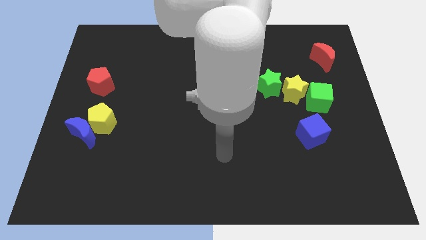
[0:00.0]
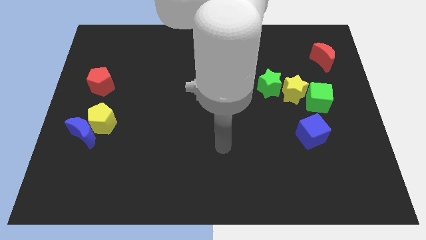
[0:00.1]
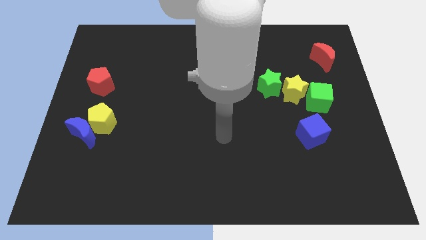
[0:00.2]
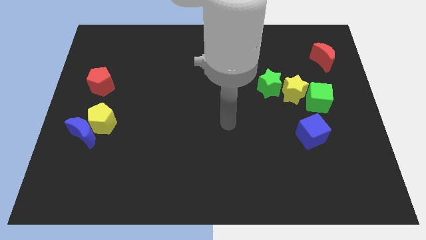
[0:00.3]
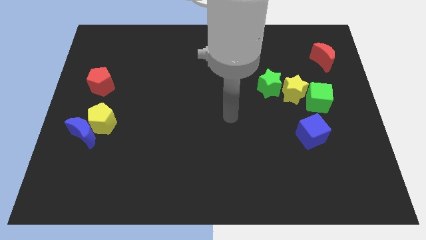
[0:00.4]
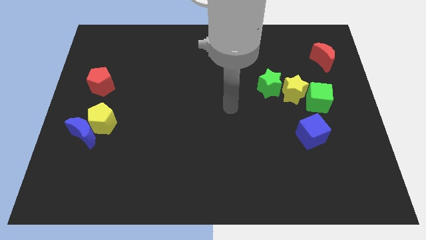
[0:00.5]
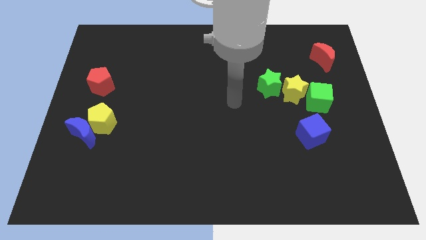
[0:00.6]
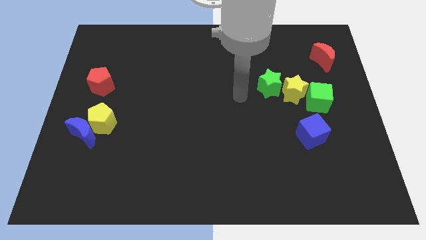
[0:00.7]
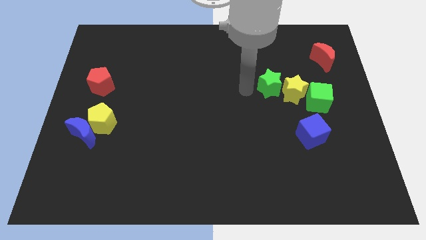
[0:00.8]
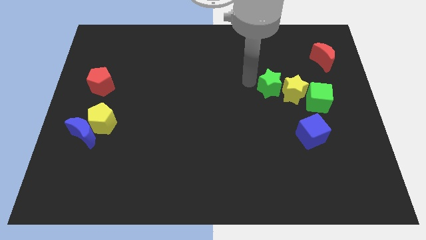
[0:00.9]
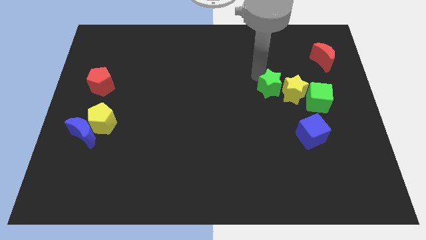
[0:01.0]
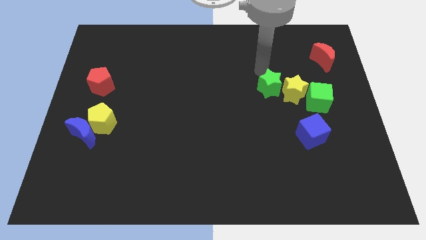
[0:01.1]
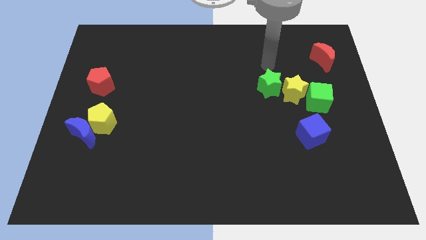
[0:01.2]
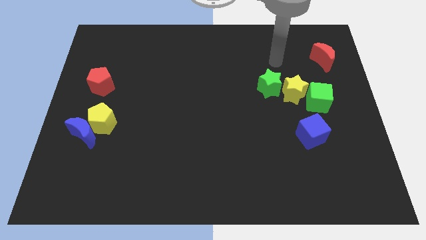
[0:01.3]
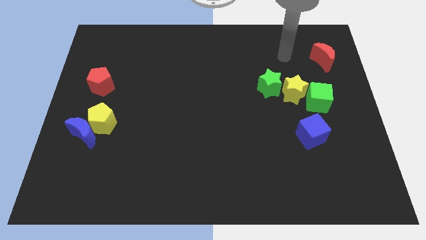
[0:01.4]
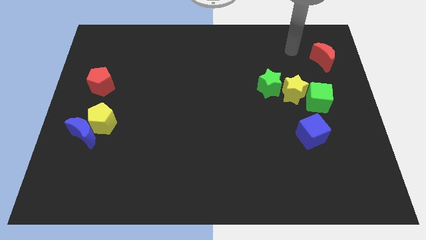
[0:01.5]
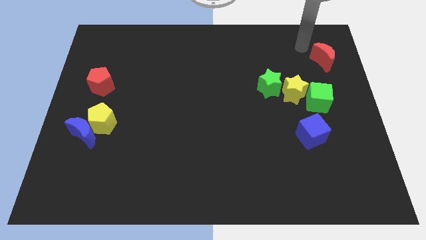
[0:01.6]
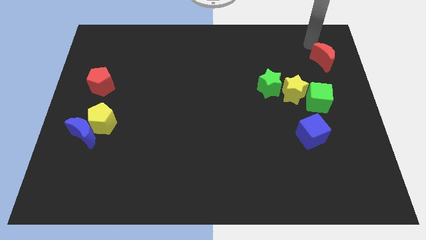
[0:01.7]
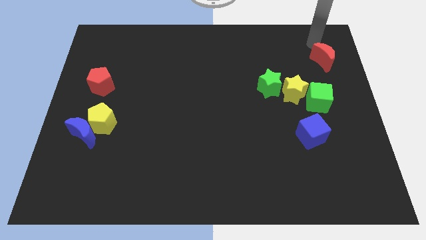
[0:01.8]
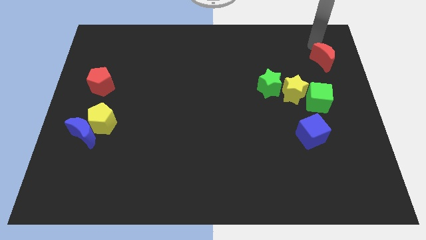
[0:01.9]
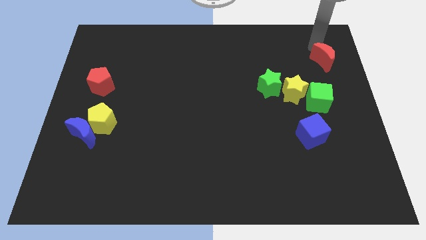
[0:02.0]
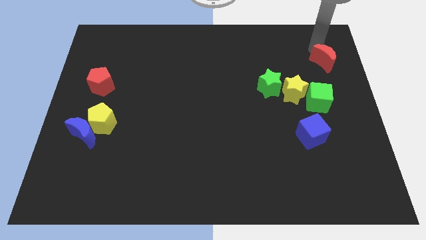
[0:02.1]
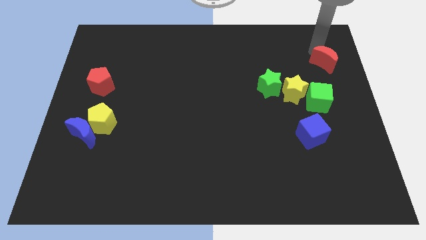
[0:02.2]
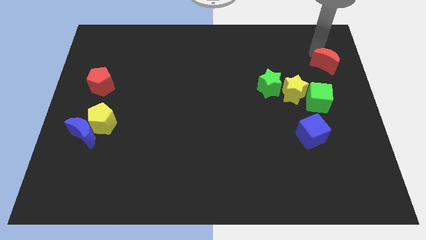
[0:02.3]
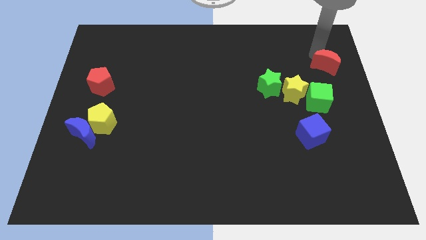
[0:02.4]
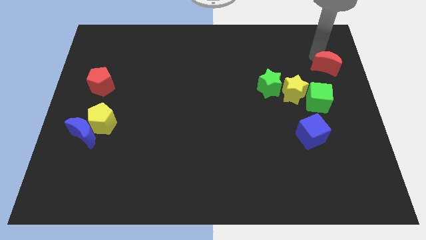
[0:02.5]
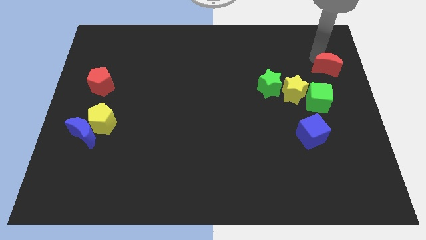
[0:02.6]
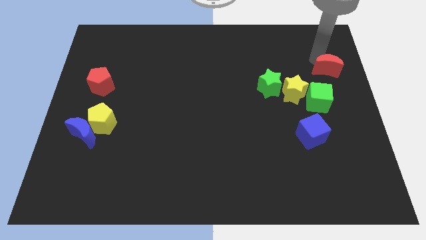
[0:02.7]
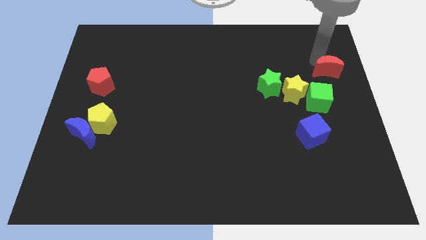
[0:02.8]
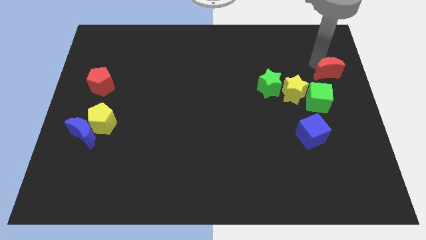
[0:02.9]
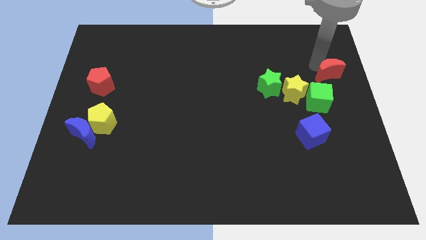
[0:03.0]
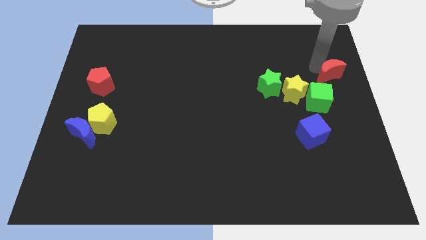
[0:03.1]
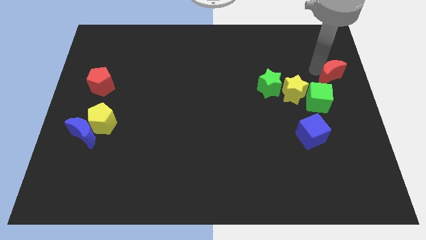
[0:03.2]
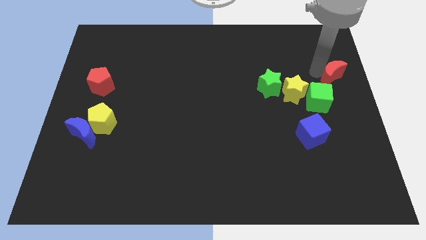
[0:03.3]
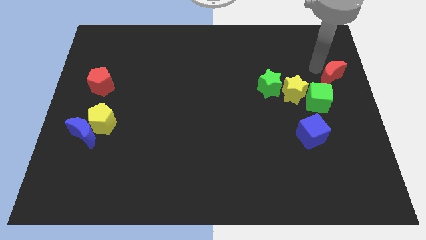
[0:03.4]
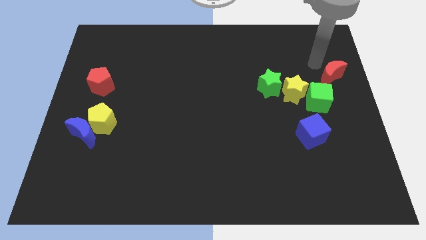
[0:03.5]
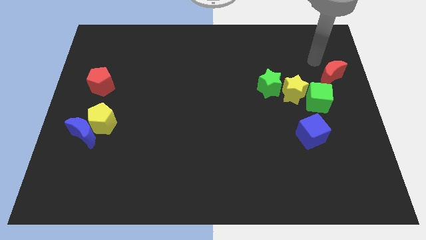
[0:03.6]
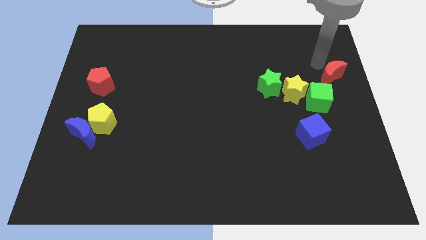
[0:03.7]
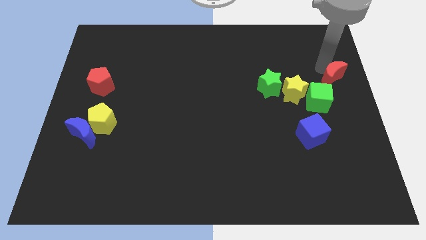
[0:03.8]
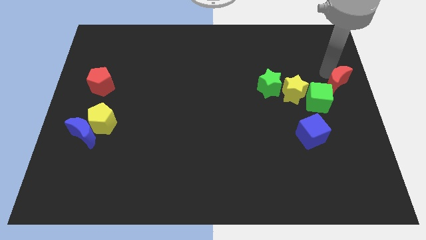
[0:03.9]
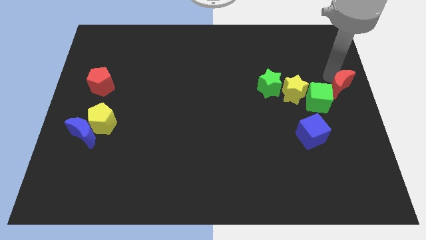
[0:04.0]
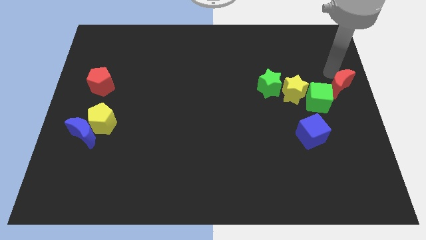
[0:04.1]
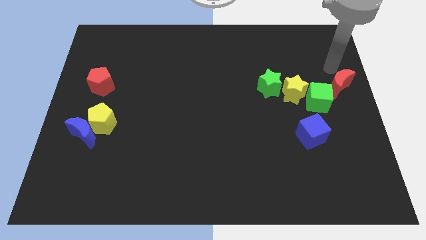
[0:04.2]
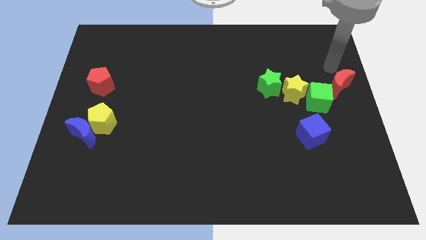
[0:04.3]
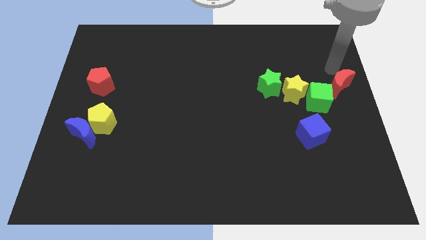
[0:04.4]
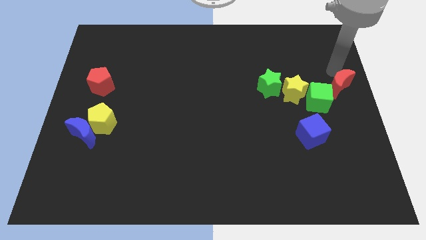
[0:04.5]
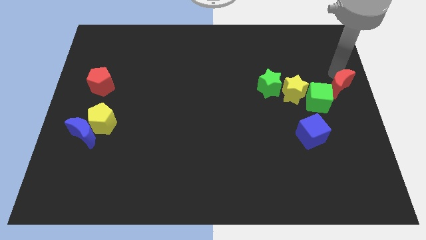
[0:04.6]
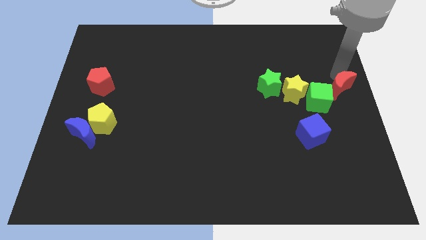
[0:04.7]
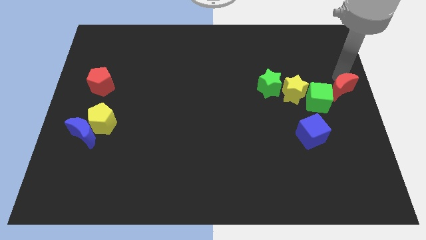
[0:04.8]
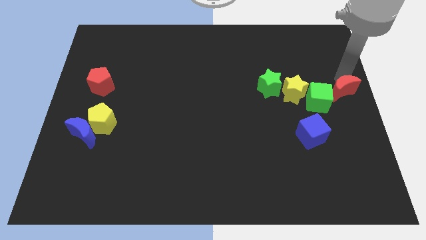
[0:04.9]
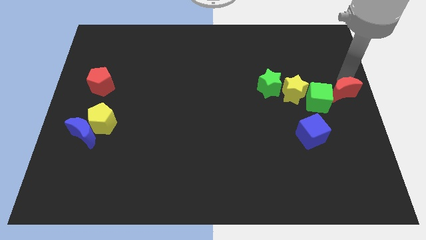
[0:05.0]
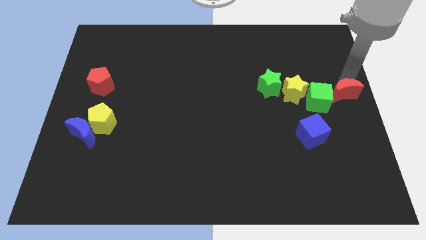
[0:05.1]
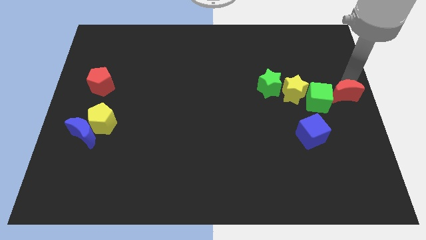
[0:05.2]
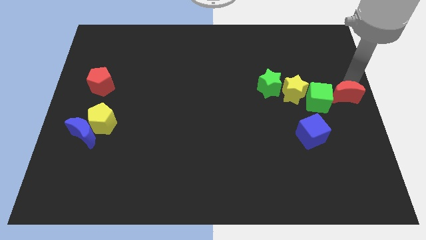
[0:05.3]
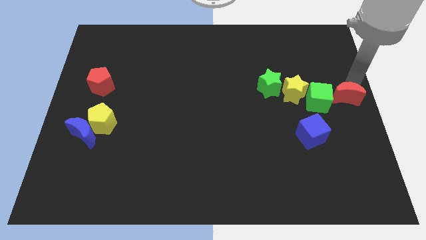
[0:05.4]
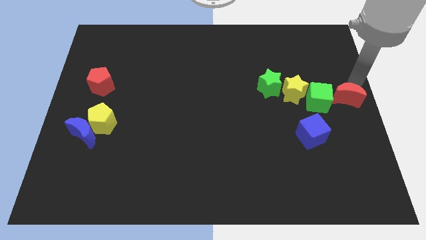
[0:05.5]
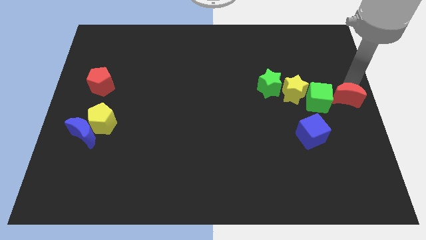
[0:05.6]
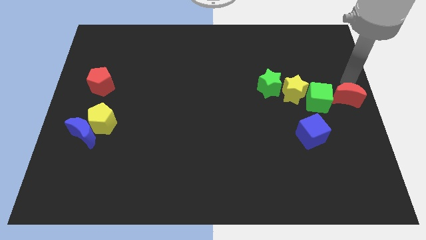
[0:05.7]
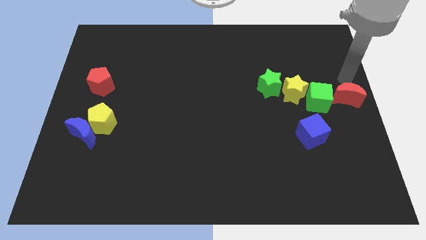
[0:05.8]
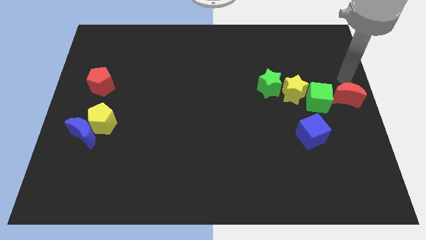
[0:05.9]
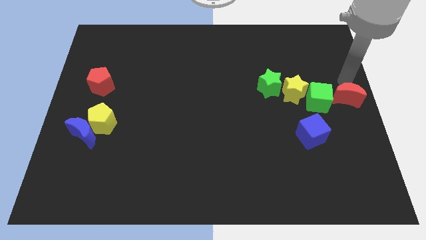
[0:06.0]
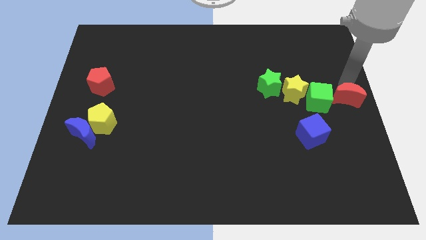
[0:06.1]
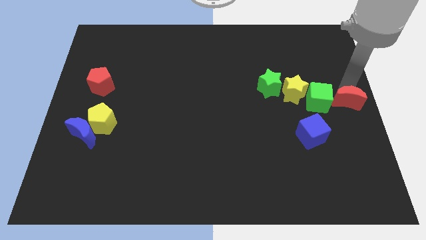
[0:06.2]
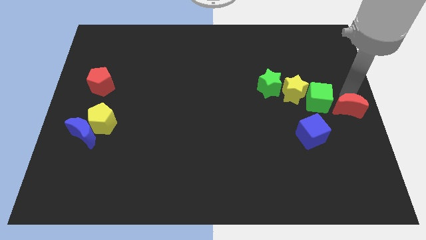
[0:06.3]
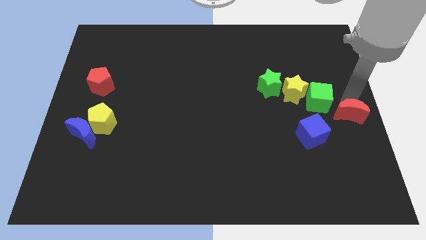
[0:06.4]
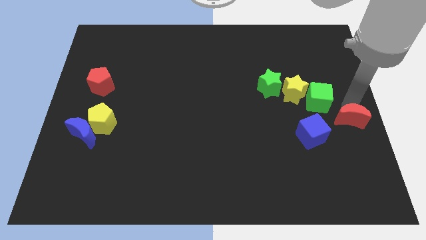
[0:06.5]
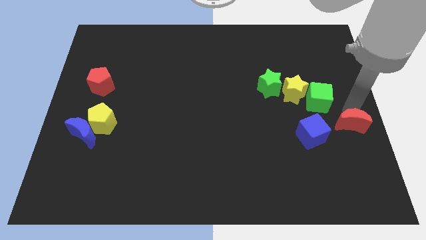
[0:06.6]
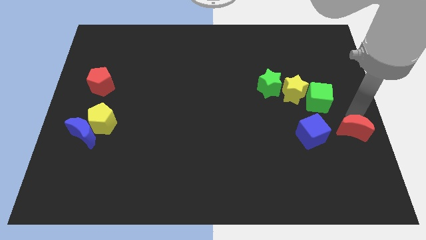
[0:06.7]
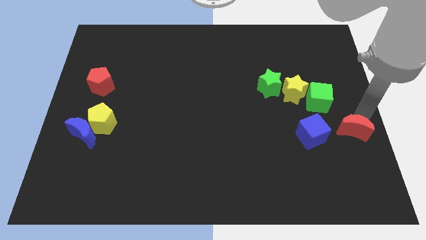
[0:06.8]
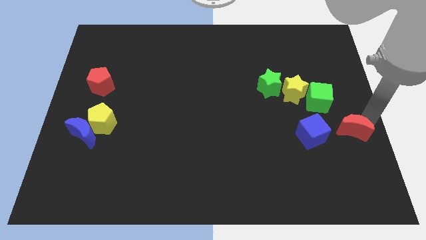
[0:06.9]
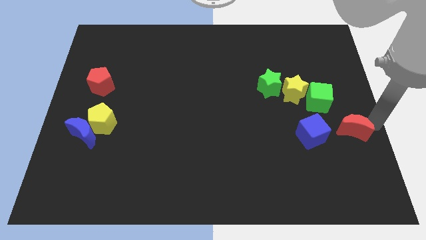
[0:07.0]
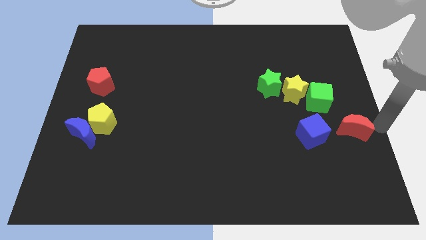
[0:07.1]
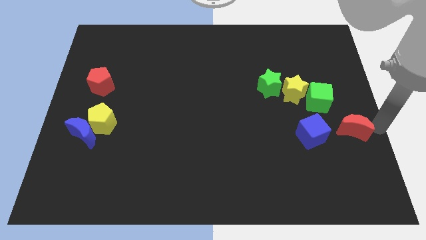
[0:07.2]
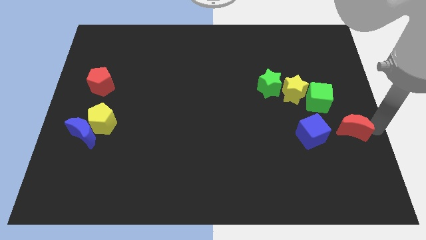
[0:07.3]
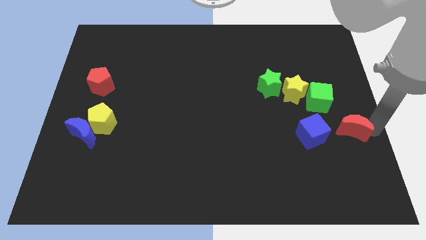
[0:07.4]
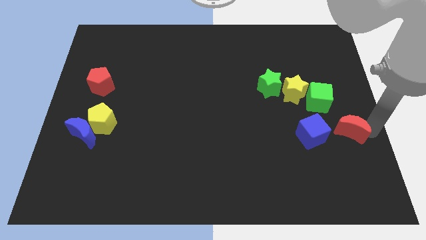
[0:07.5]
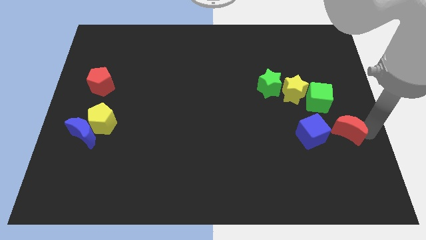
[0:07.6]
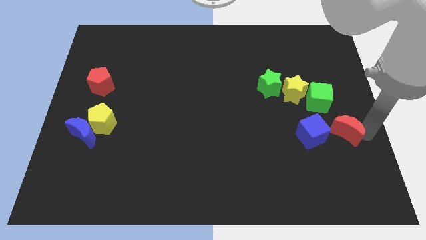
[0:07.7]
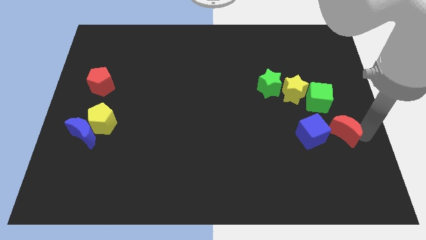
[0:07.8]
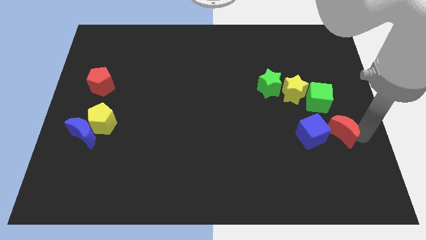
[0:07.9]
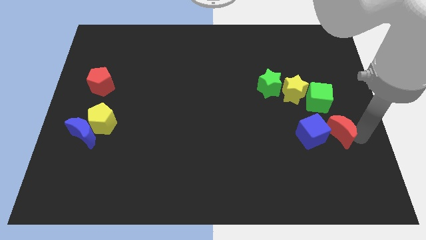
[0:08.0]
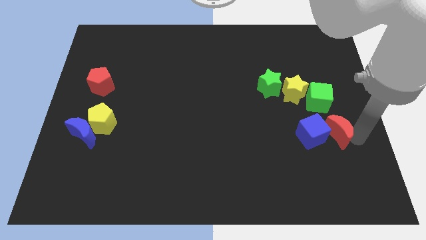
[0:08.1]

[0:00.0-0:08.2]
put the red moon towards the blue cube
